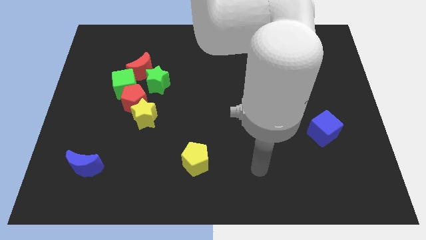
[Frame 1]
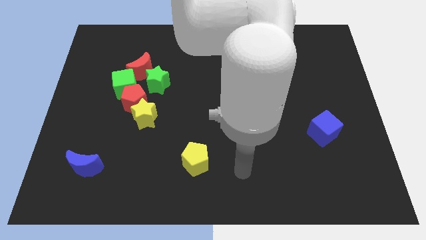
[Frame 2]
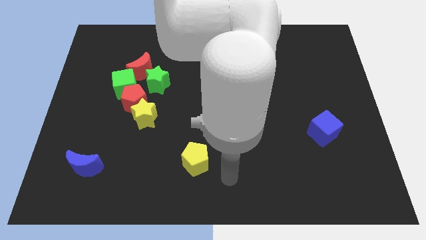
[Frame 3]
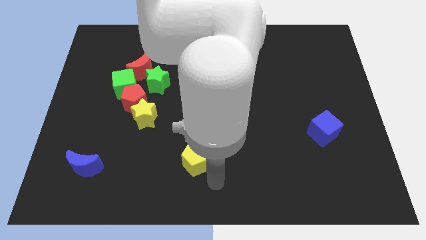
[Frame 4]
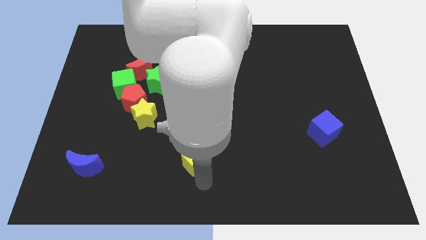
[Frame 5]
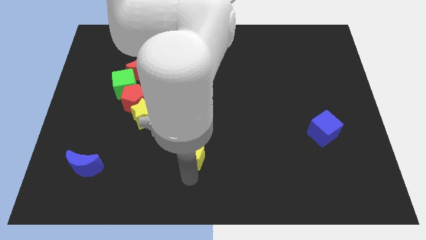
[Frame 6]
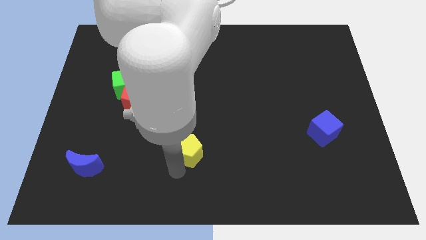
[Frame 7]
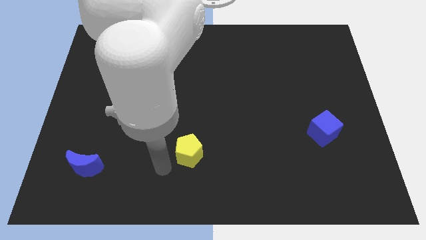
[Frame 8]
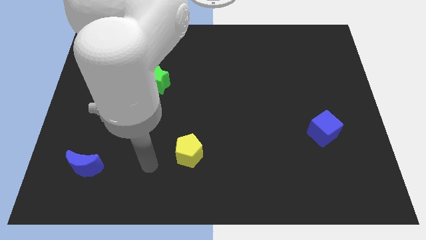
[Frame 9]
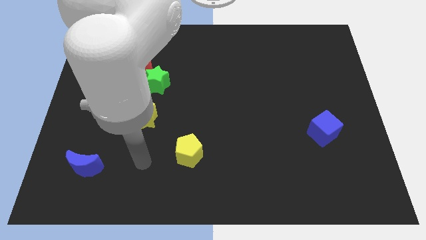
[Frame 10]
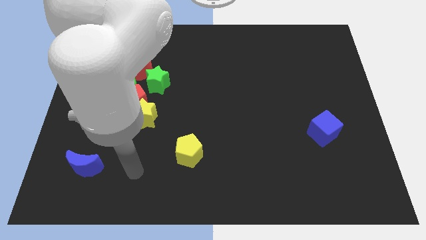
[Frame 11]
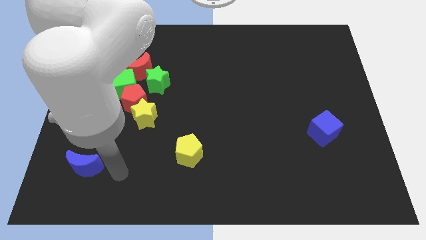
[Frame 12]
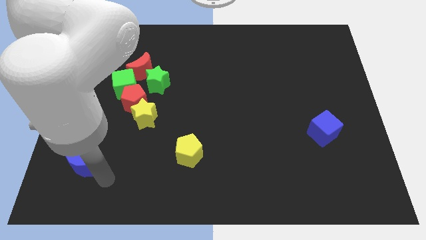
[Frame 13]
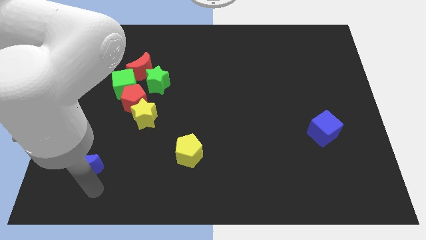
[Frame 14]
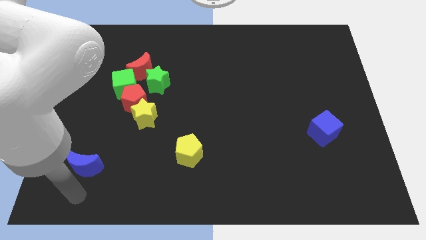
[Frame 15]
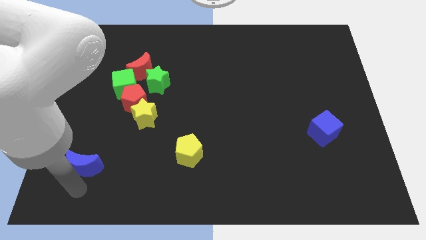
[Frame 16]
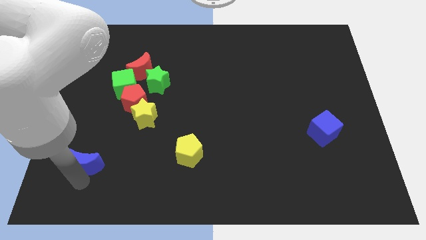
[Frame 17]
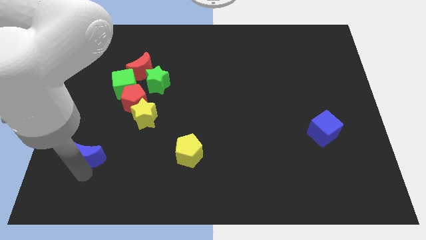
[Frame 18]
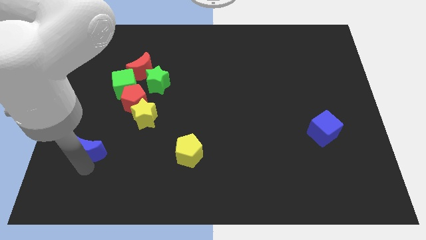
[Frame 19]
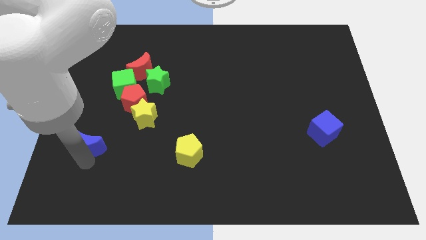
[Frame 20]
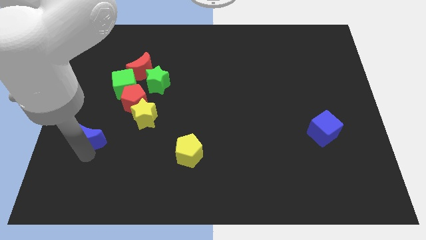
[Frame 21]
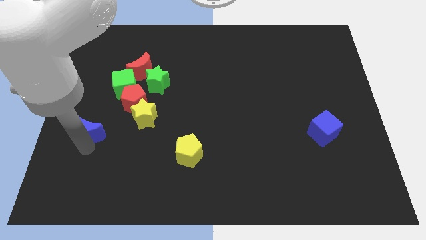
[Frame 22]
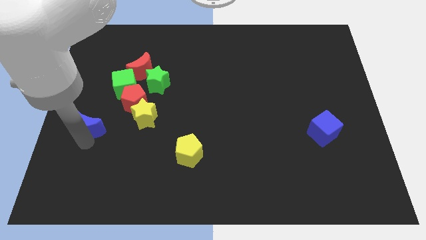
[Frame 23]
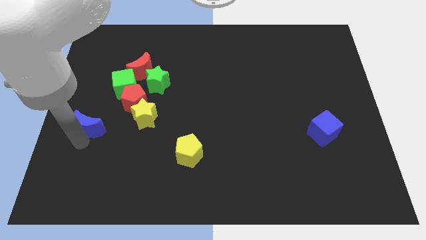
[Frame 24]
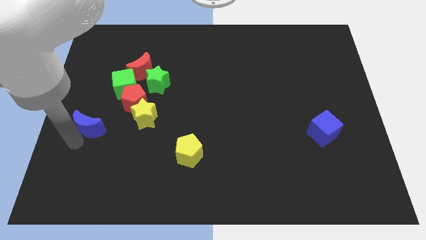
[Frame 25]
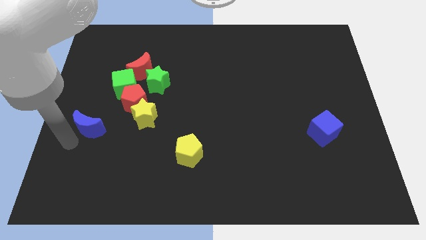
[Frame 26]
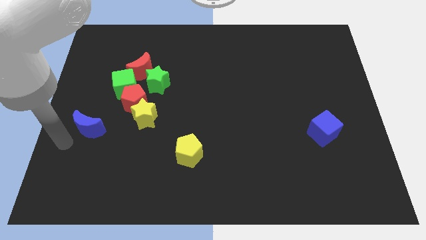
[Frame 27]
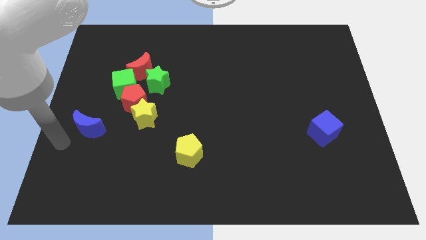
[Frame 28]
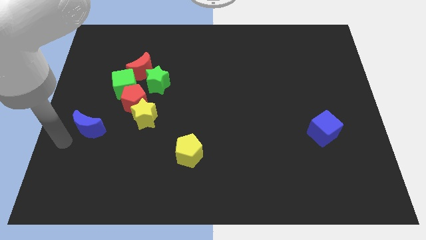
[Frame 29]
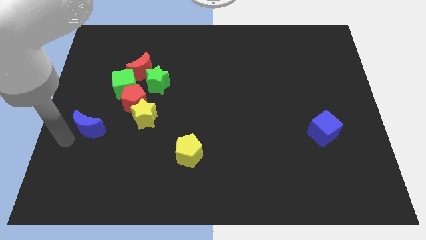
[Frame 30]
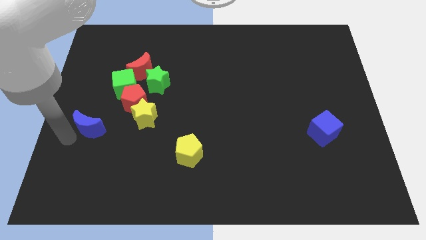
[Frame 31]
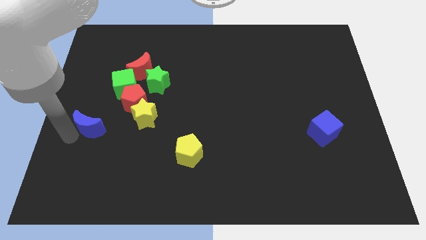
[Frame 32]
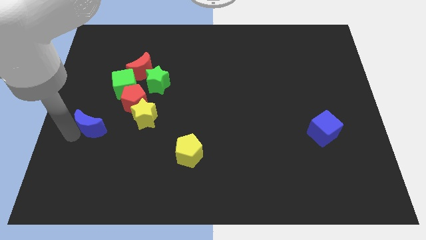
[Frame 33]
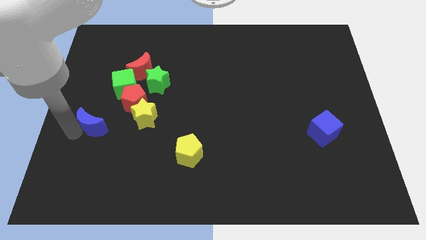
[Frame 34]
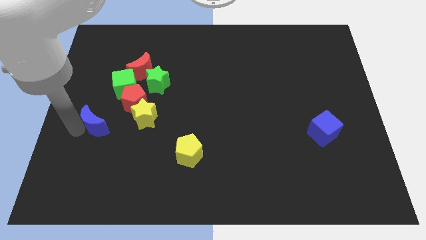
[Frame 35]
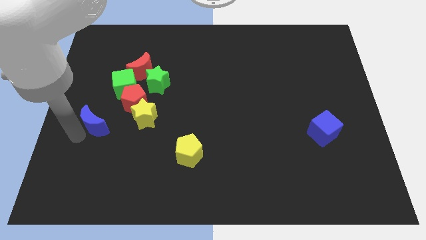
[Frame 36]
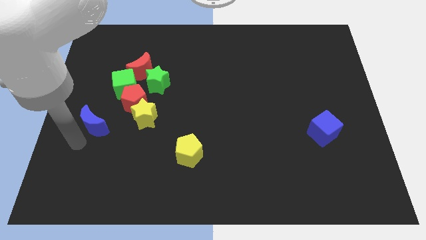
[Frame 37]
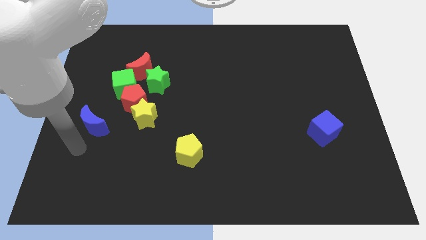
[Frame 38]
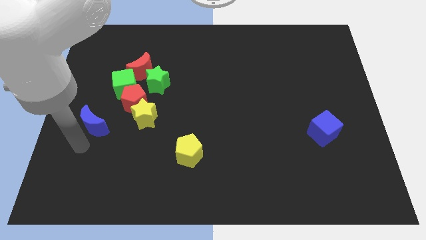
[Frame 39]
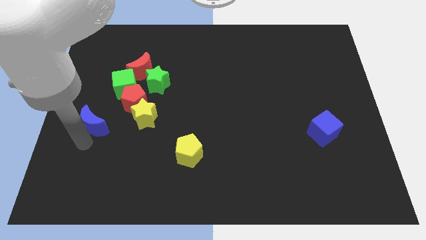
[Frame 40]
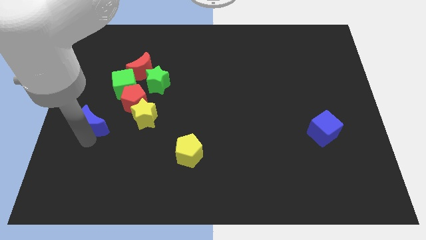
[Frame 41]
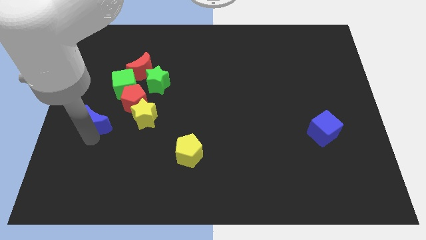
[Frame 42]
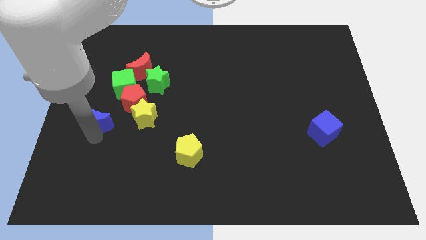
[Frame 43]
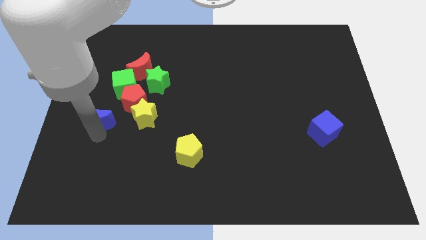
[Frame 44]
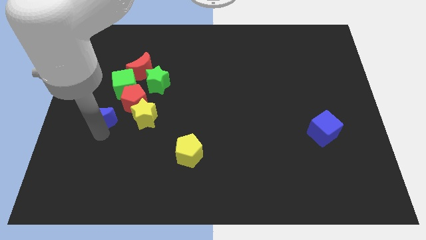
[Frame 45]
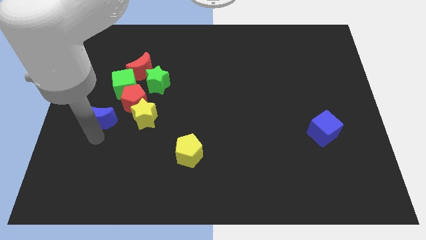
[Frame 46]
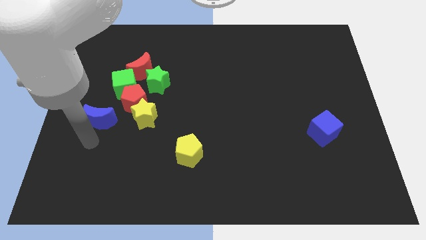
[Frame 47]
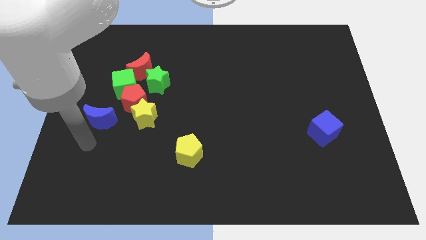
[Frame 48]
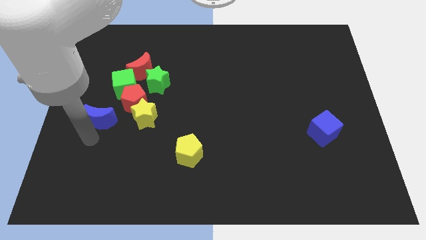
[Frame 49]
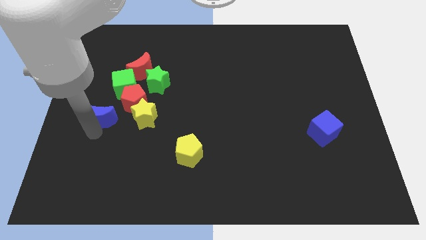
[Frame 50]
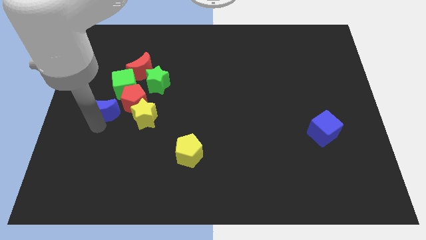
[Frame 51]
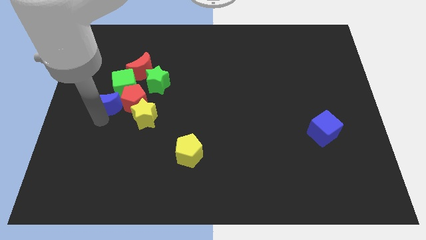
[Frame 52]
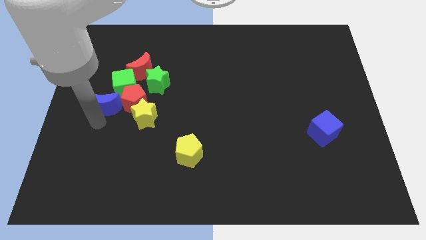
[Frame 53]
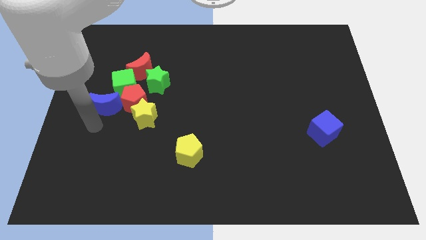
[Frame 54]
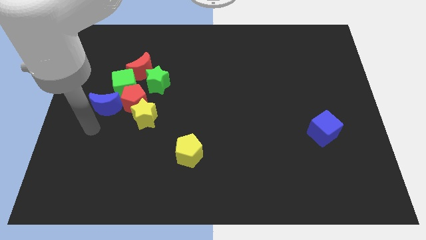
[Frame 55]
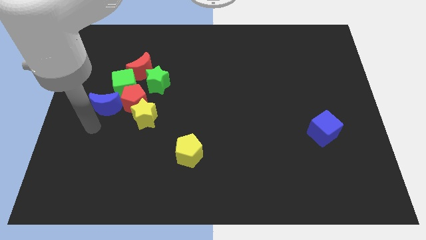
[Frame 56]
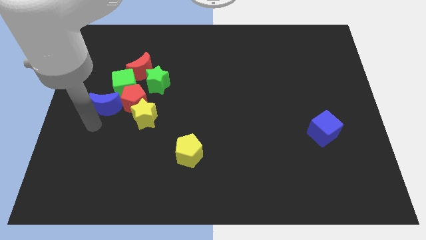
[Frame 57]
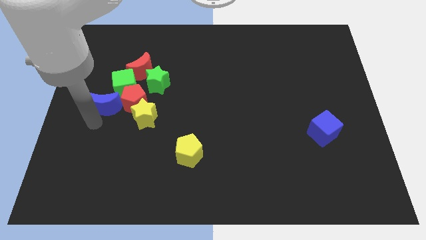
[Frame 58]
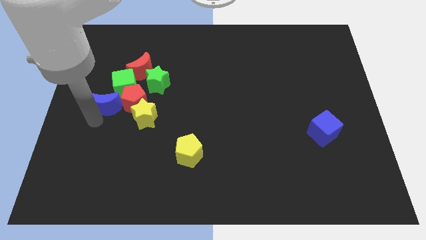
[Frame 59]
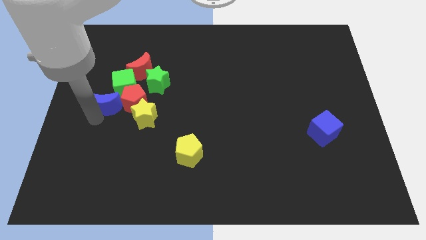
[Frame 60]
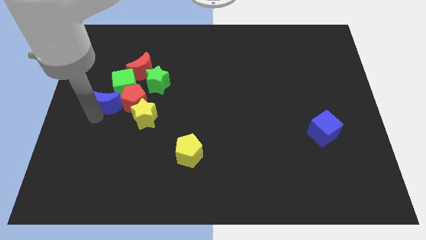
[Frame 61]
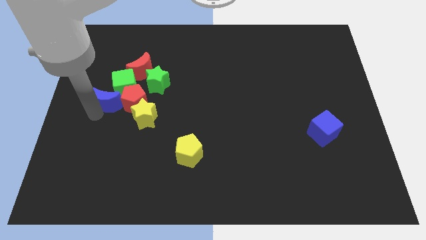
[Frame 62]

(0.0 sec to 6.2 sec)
move the blue moon close to the green cube

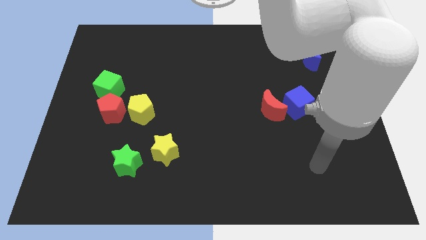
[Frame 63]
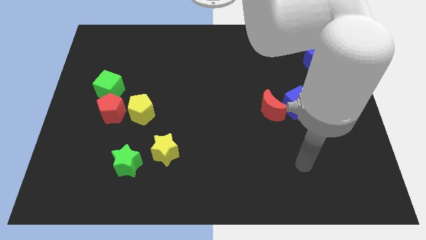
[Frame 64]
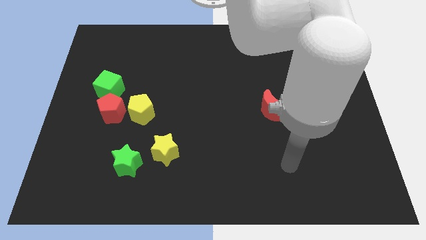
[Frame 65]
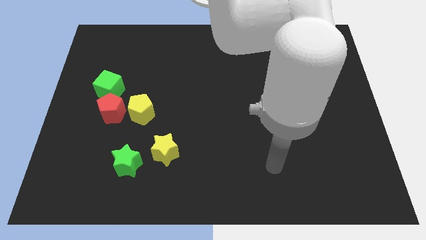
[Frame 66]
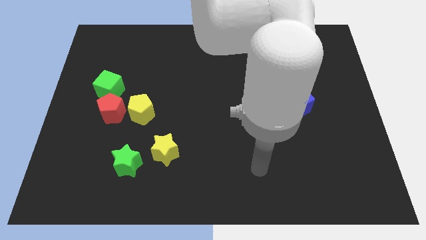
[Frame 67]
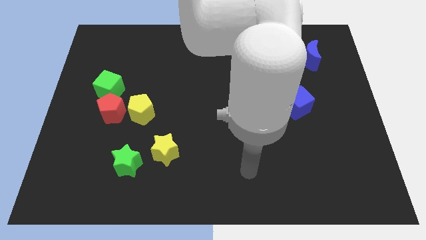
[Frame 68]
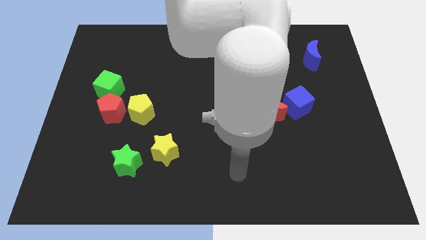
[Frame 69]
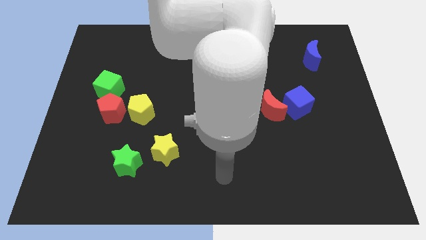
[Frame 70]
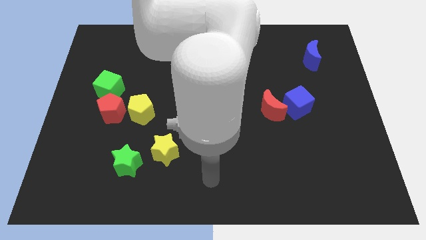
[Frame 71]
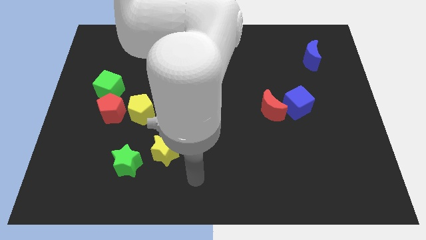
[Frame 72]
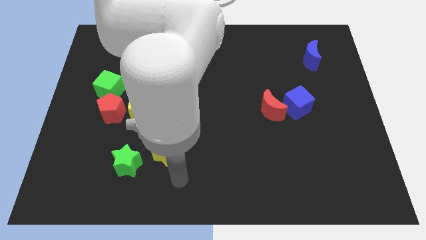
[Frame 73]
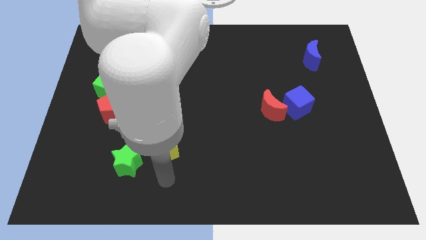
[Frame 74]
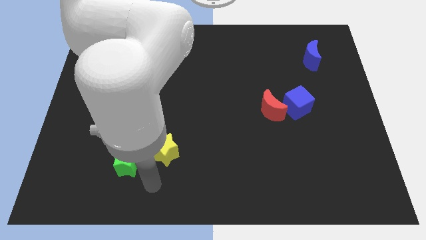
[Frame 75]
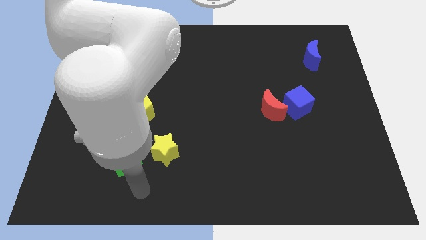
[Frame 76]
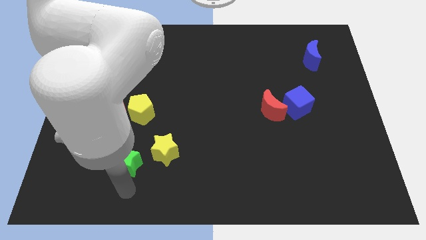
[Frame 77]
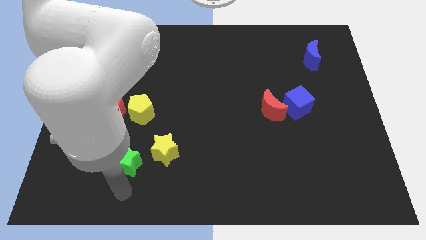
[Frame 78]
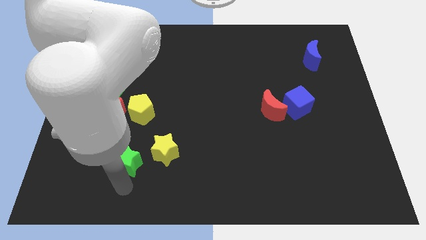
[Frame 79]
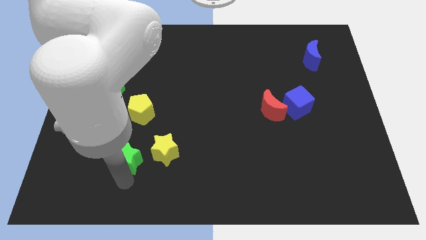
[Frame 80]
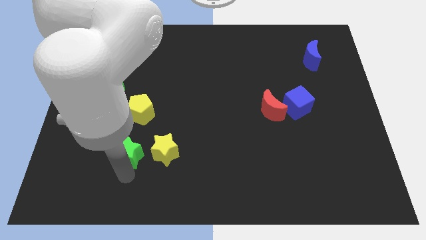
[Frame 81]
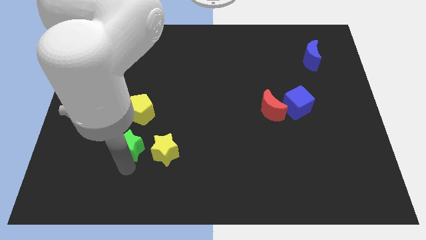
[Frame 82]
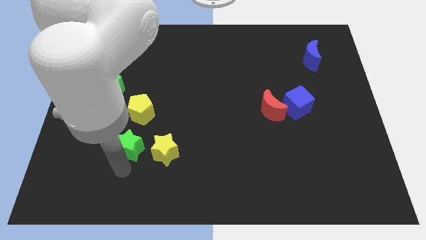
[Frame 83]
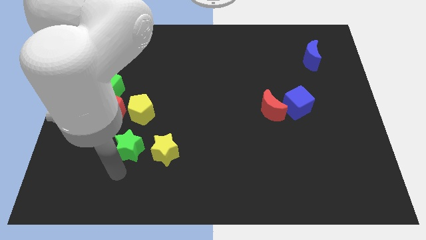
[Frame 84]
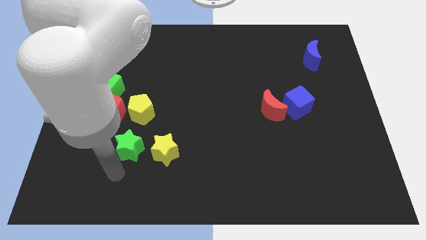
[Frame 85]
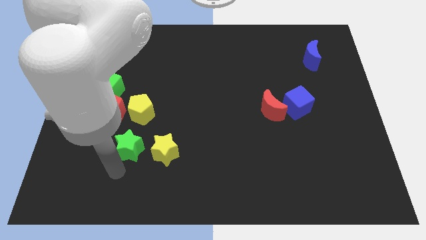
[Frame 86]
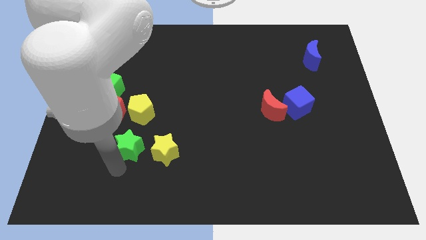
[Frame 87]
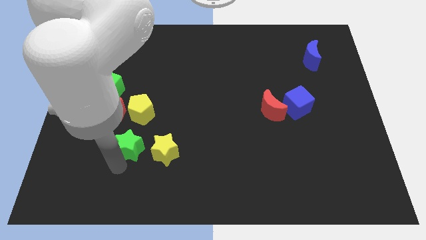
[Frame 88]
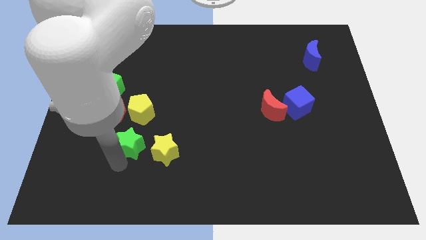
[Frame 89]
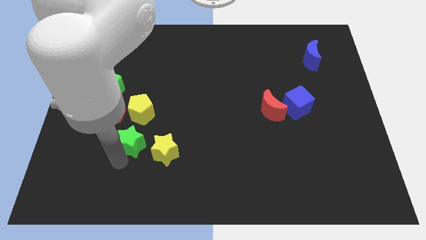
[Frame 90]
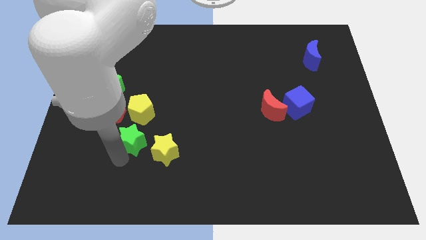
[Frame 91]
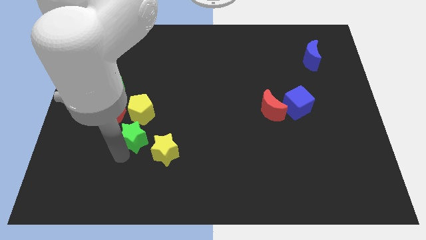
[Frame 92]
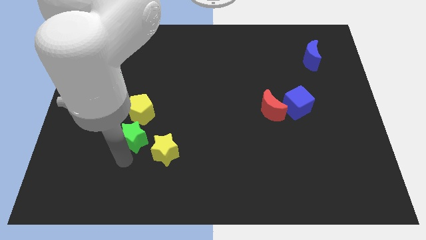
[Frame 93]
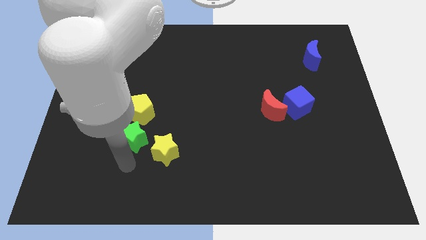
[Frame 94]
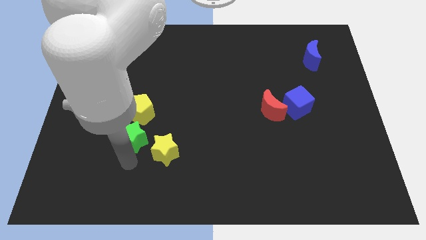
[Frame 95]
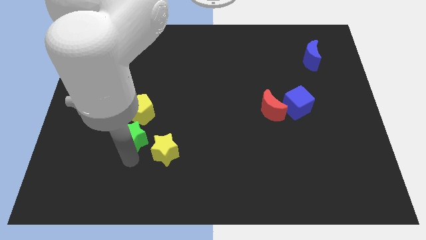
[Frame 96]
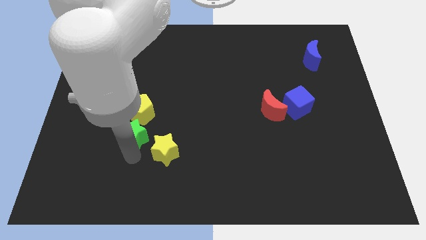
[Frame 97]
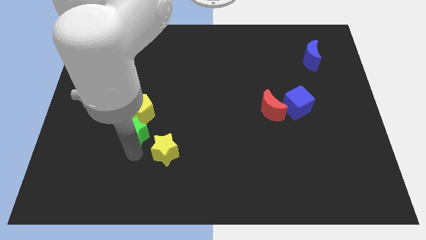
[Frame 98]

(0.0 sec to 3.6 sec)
move the green star next to the yellow pentagon
